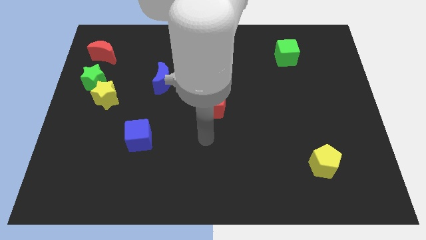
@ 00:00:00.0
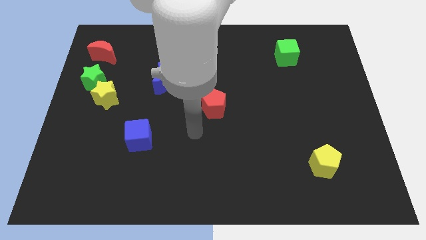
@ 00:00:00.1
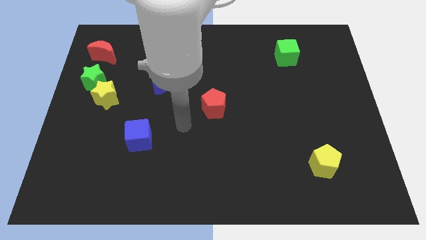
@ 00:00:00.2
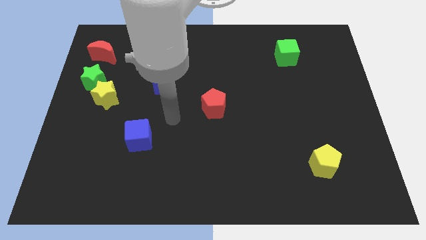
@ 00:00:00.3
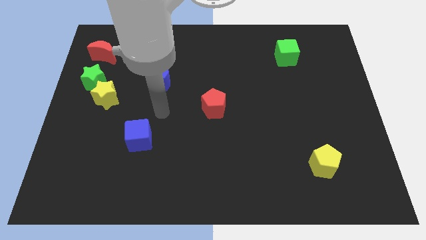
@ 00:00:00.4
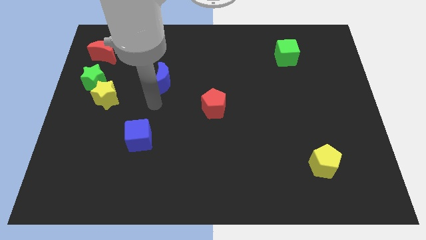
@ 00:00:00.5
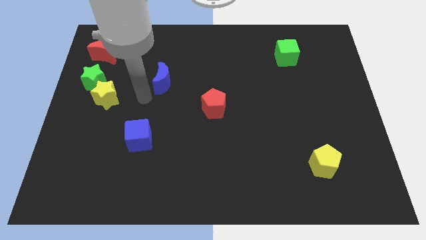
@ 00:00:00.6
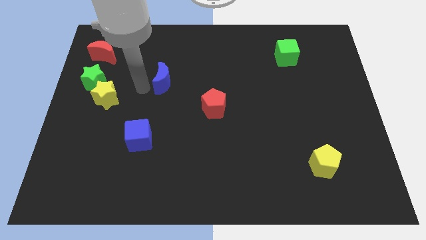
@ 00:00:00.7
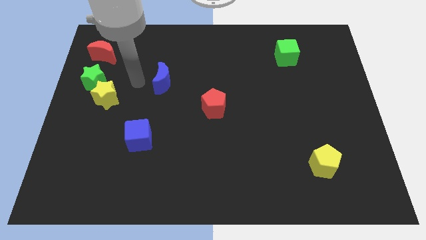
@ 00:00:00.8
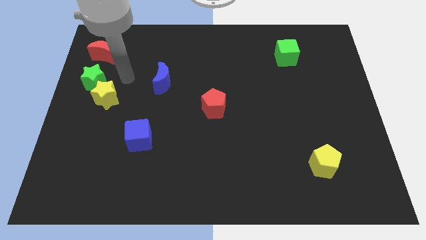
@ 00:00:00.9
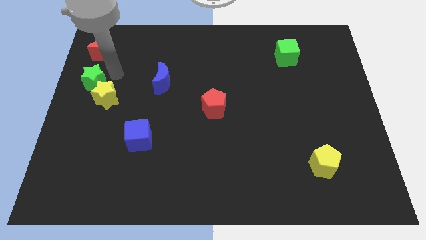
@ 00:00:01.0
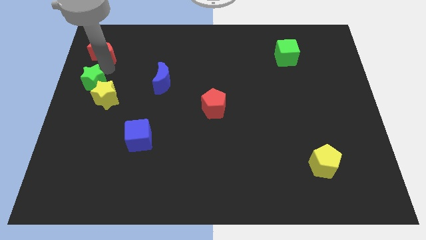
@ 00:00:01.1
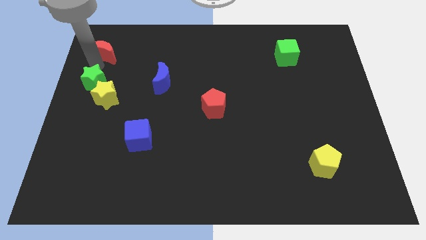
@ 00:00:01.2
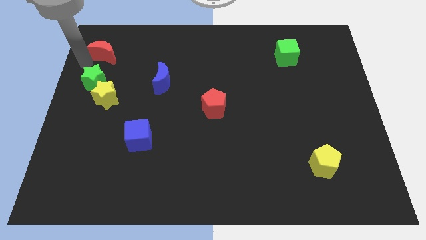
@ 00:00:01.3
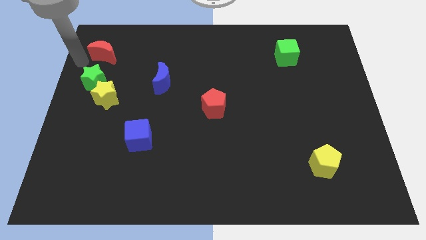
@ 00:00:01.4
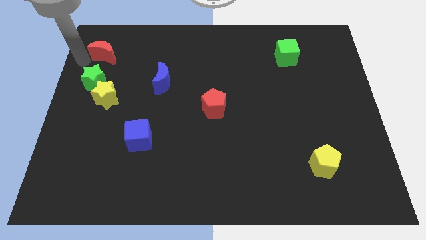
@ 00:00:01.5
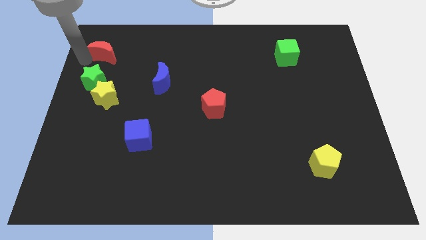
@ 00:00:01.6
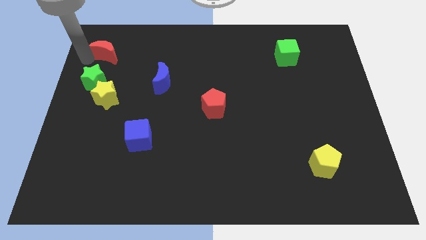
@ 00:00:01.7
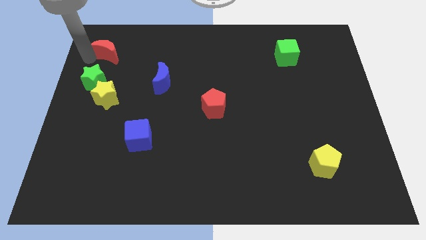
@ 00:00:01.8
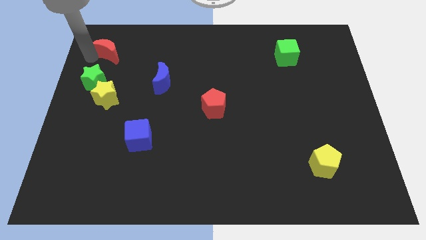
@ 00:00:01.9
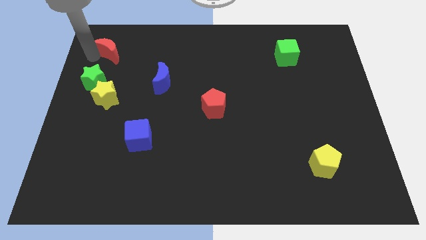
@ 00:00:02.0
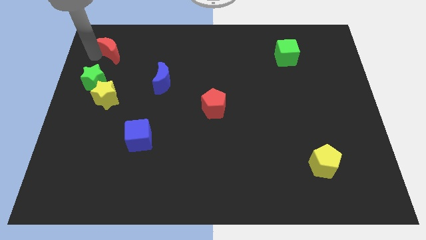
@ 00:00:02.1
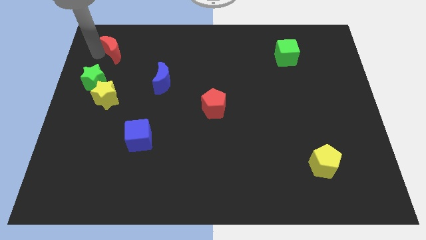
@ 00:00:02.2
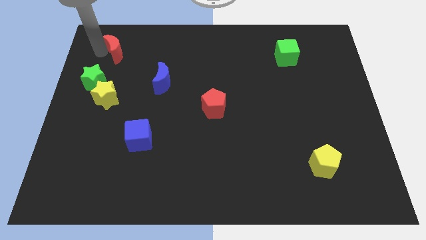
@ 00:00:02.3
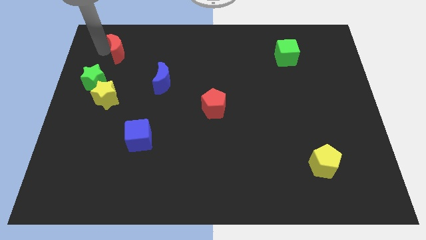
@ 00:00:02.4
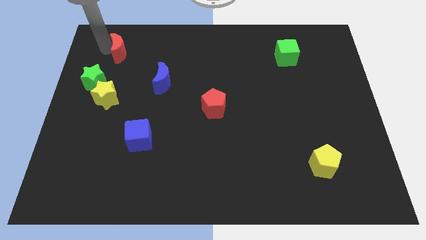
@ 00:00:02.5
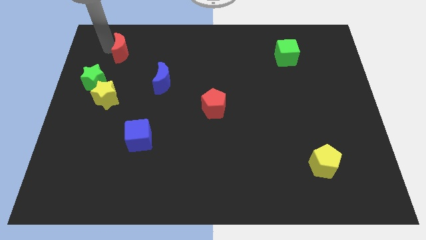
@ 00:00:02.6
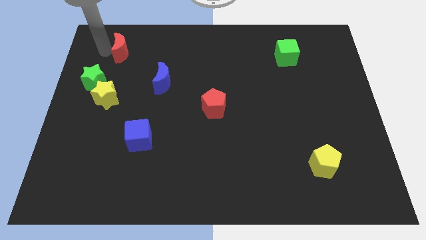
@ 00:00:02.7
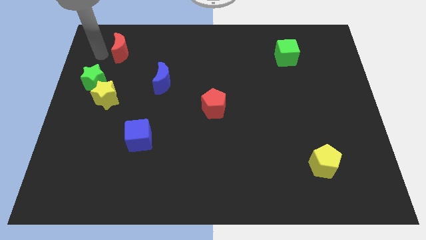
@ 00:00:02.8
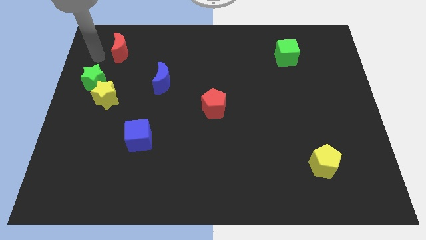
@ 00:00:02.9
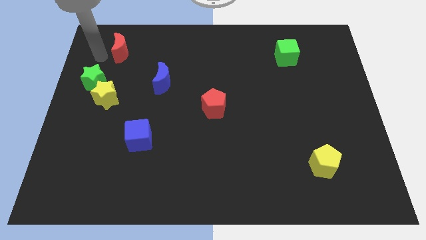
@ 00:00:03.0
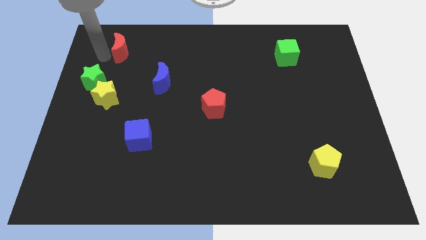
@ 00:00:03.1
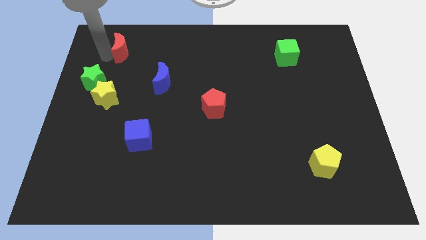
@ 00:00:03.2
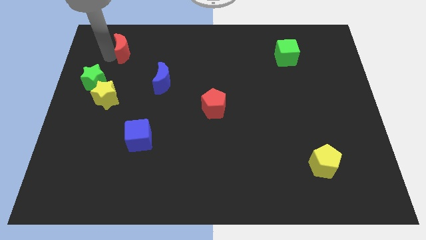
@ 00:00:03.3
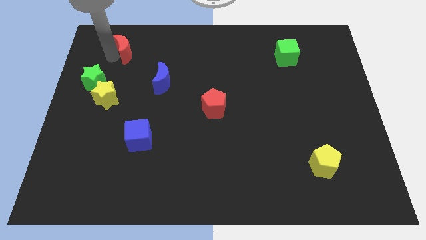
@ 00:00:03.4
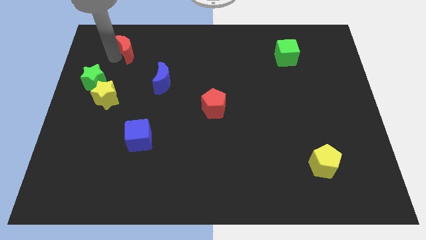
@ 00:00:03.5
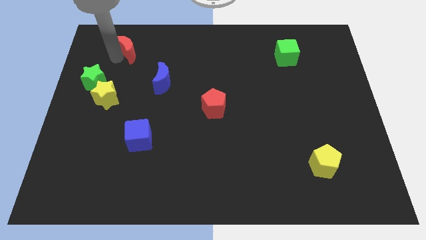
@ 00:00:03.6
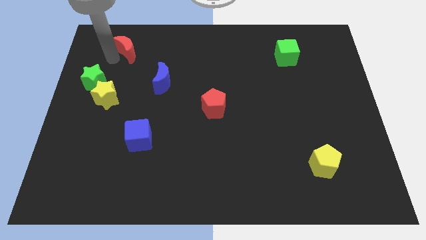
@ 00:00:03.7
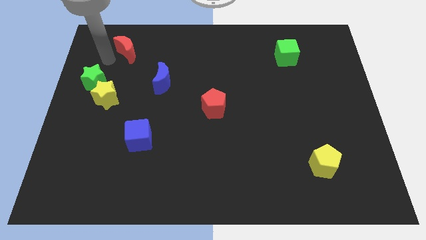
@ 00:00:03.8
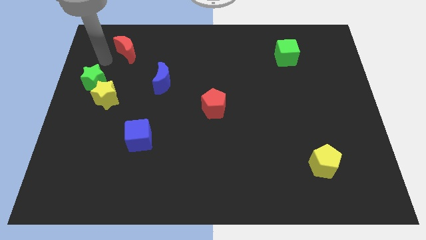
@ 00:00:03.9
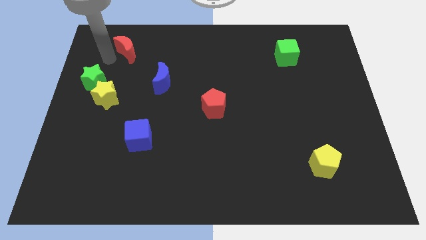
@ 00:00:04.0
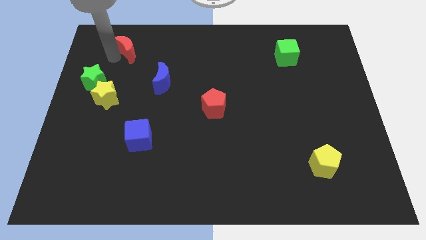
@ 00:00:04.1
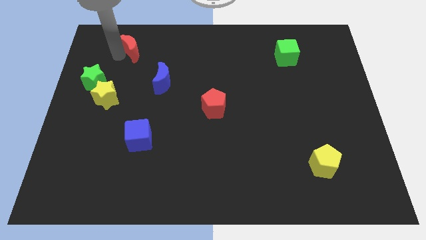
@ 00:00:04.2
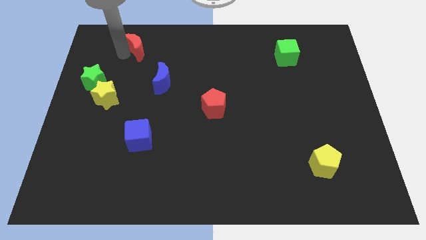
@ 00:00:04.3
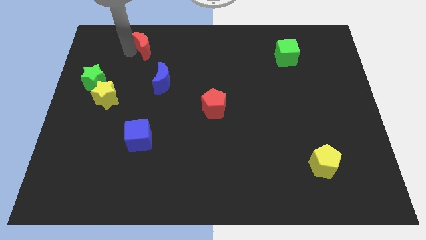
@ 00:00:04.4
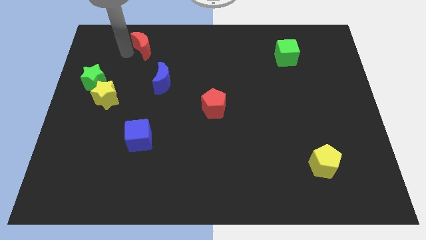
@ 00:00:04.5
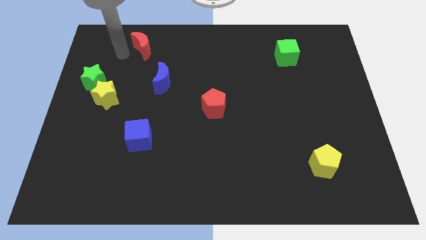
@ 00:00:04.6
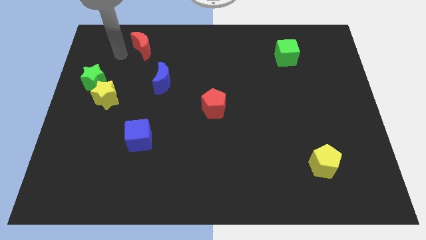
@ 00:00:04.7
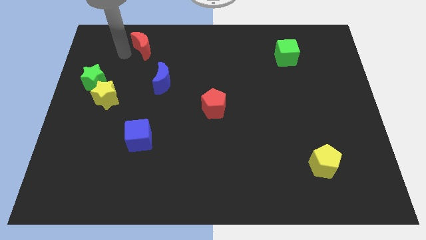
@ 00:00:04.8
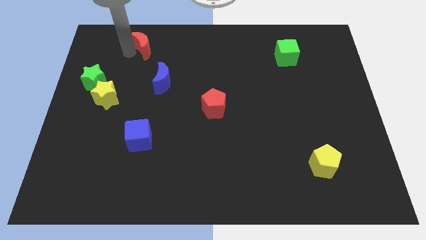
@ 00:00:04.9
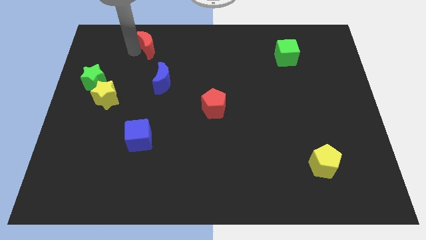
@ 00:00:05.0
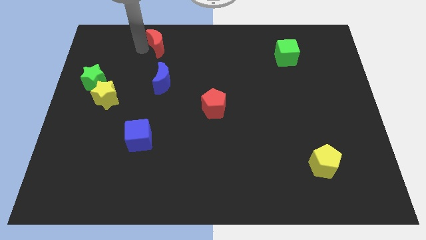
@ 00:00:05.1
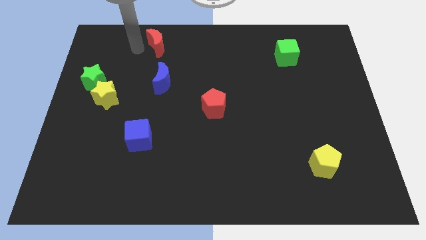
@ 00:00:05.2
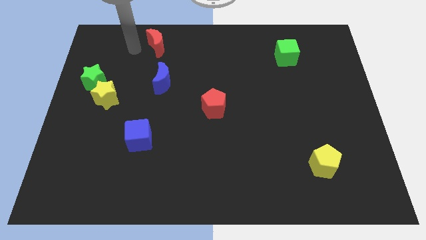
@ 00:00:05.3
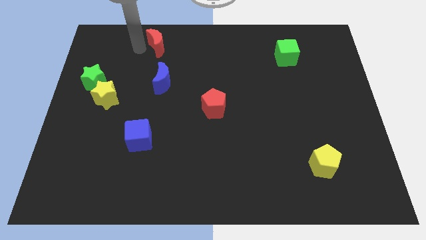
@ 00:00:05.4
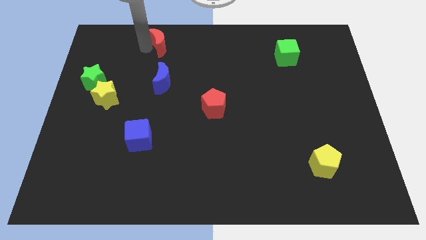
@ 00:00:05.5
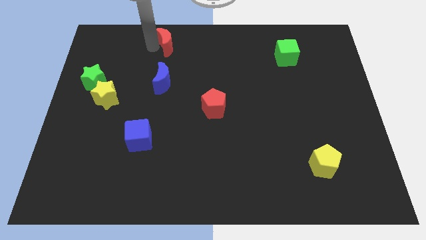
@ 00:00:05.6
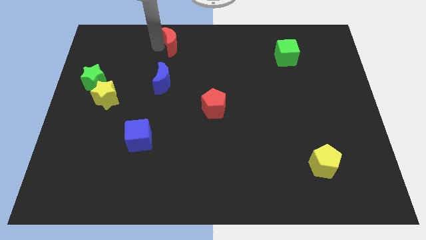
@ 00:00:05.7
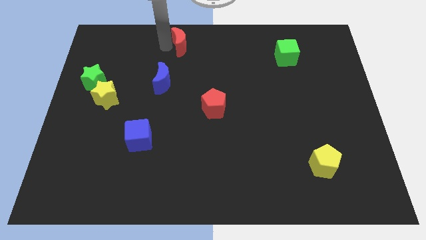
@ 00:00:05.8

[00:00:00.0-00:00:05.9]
move the red moon to the top

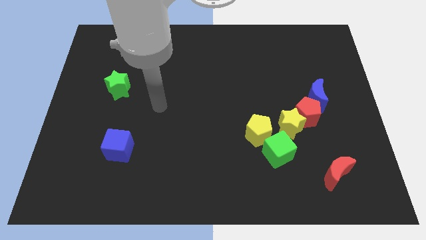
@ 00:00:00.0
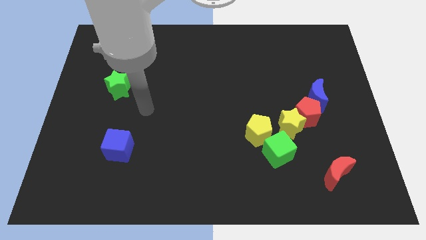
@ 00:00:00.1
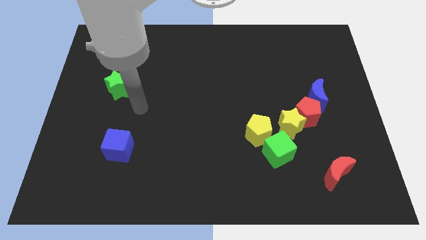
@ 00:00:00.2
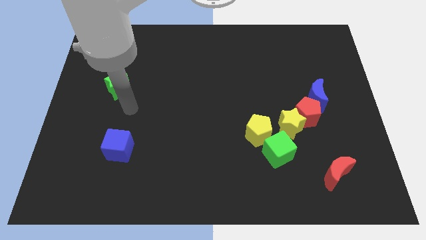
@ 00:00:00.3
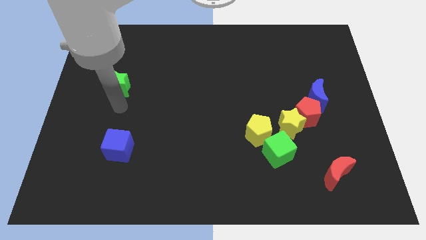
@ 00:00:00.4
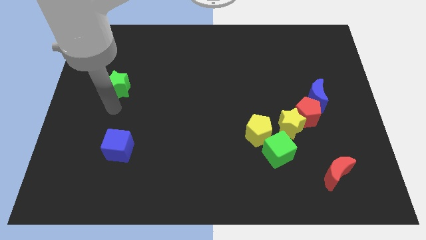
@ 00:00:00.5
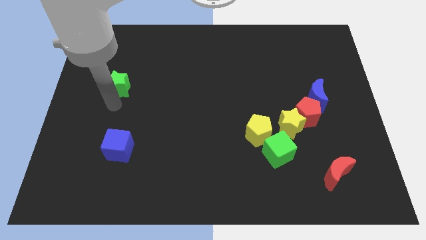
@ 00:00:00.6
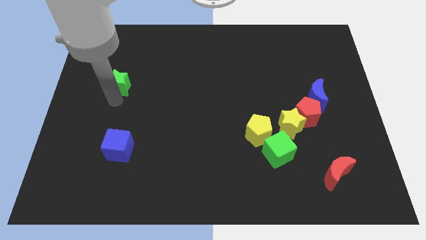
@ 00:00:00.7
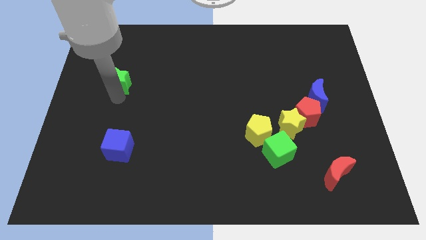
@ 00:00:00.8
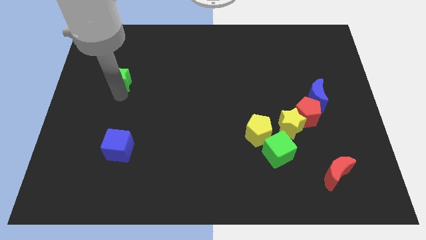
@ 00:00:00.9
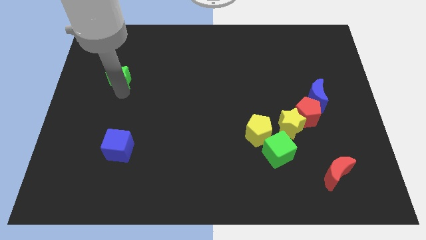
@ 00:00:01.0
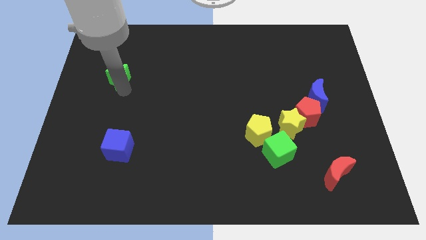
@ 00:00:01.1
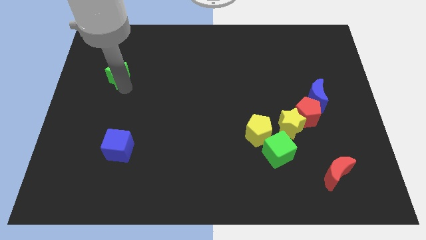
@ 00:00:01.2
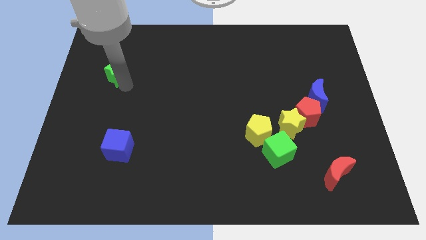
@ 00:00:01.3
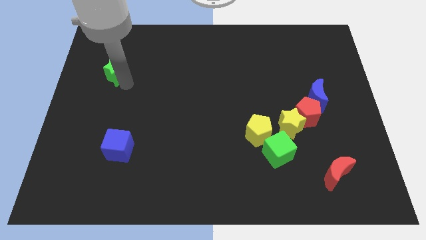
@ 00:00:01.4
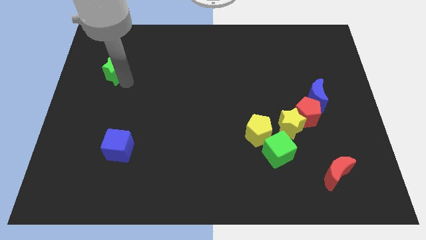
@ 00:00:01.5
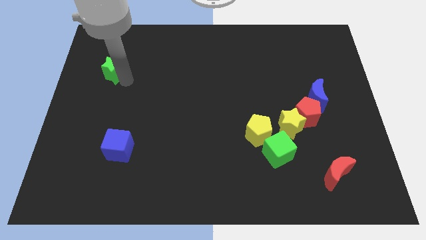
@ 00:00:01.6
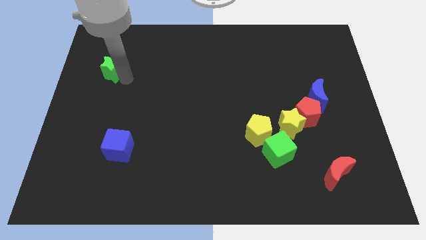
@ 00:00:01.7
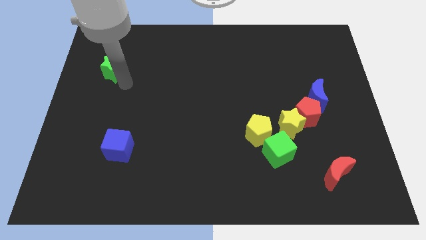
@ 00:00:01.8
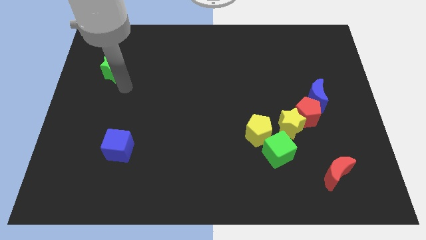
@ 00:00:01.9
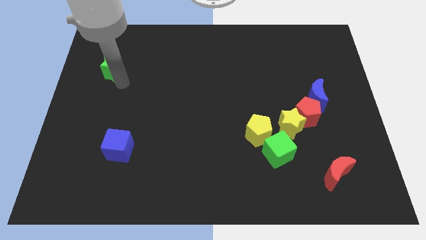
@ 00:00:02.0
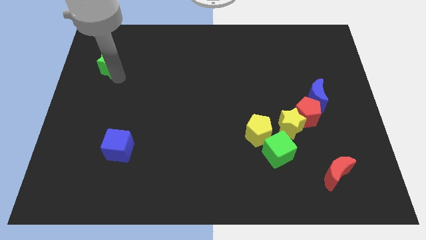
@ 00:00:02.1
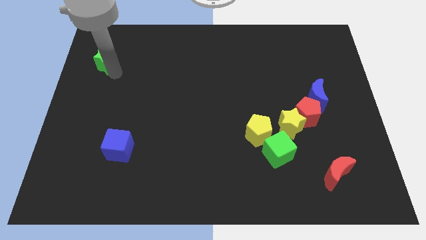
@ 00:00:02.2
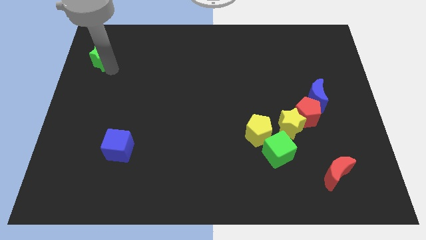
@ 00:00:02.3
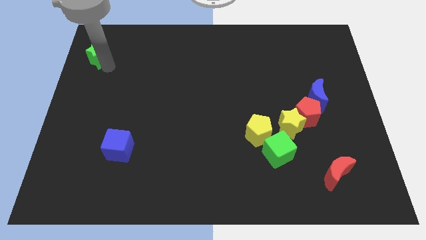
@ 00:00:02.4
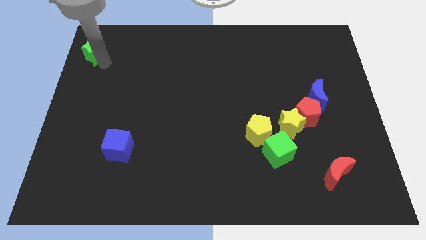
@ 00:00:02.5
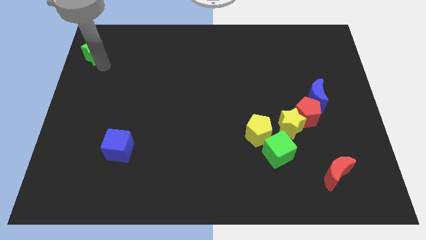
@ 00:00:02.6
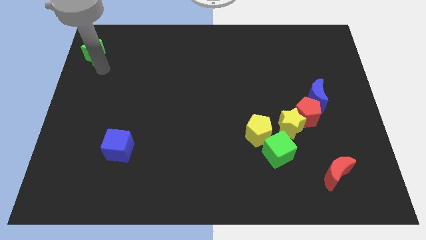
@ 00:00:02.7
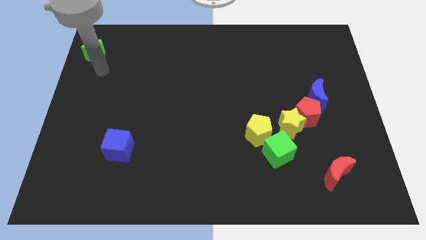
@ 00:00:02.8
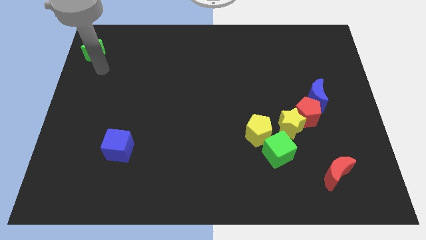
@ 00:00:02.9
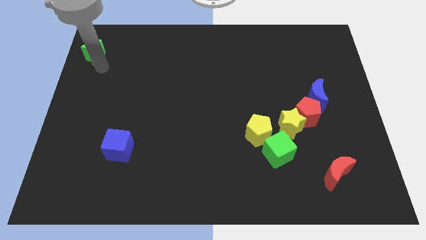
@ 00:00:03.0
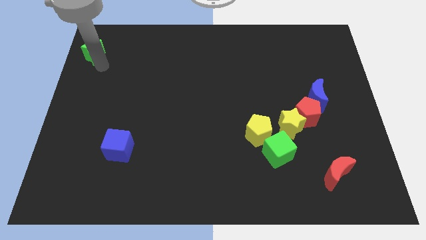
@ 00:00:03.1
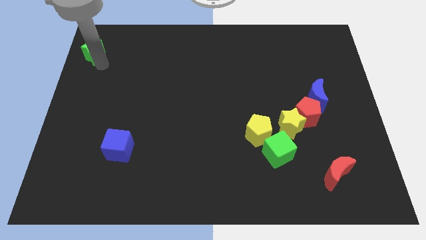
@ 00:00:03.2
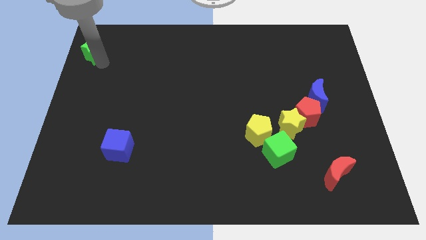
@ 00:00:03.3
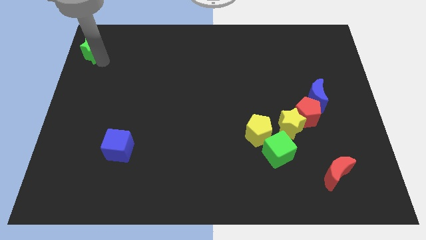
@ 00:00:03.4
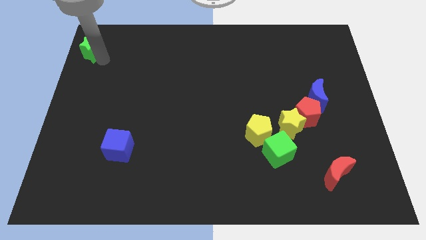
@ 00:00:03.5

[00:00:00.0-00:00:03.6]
move the green star to the upper left corner
